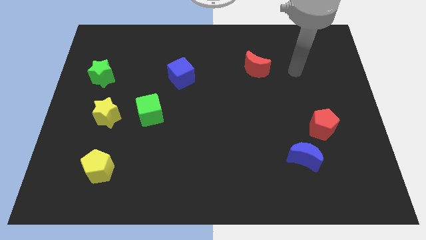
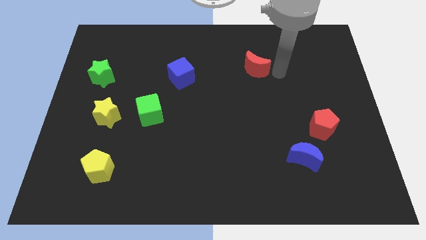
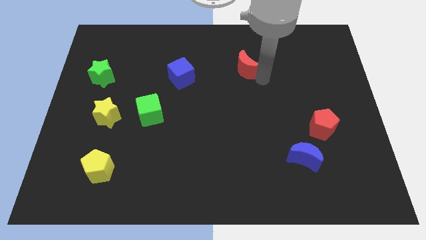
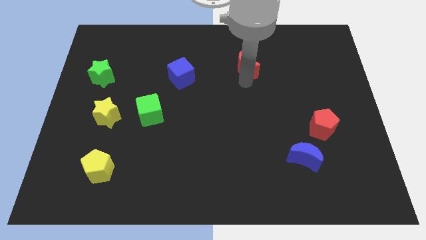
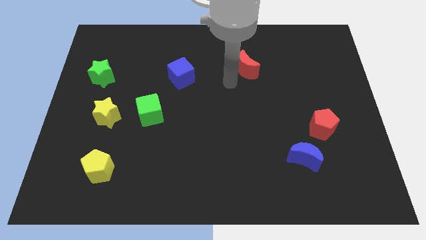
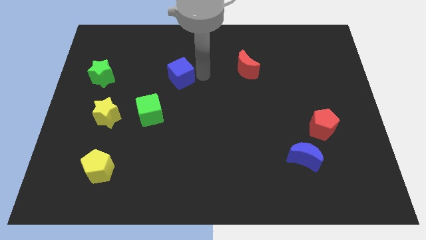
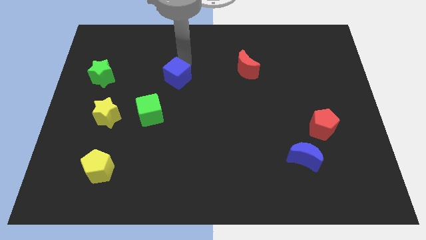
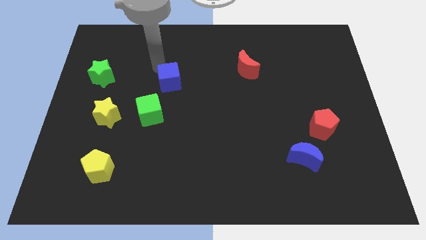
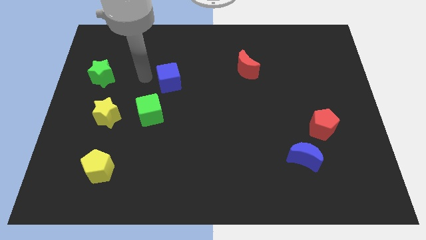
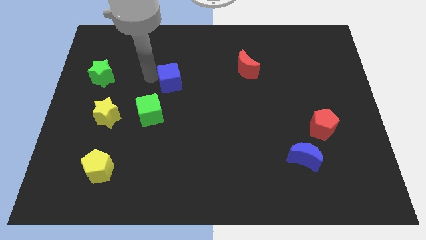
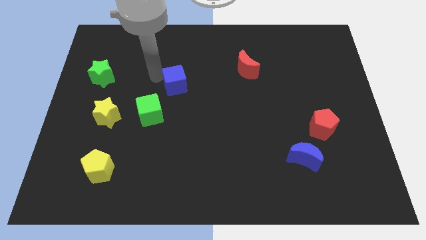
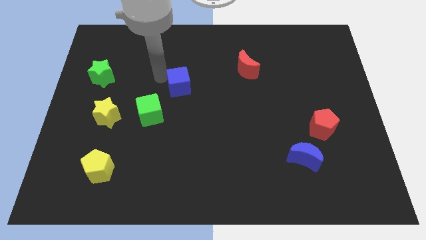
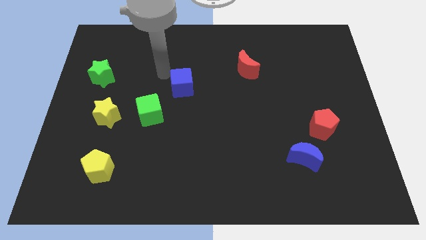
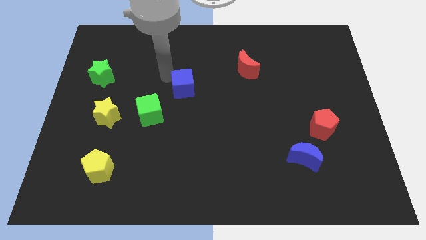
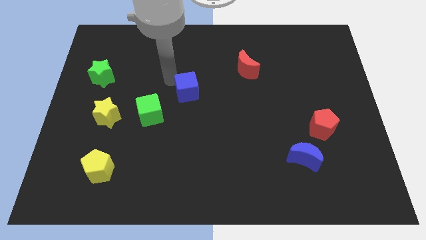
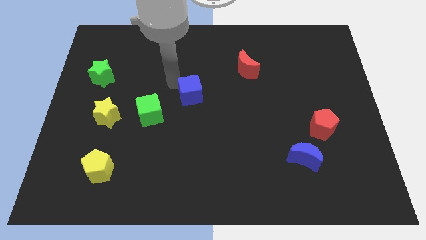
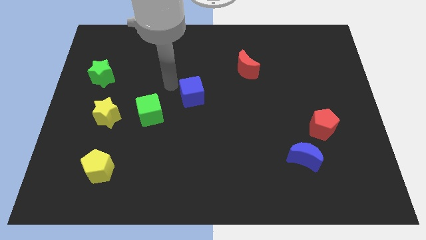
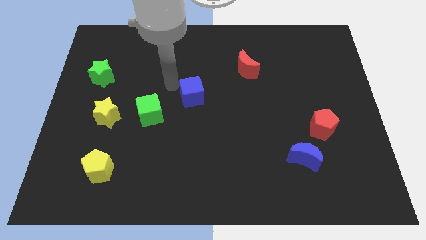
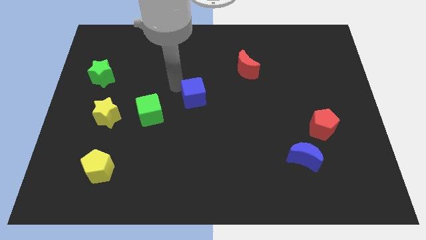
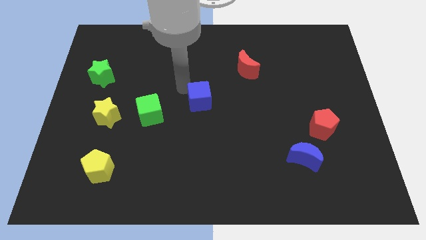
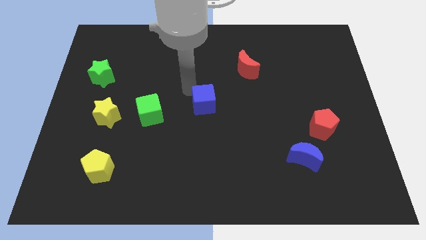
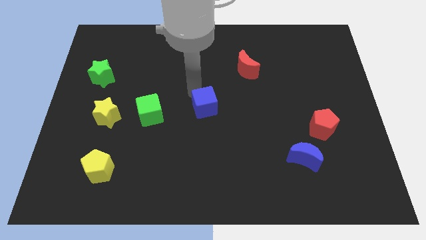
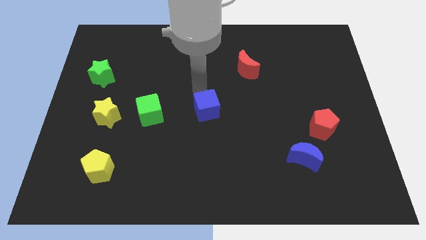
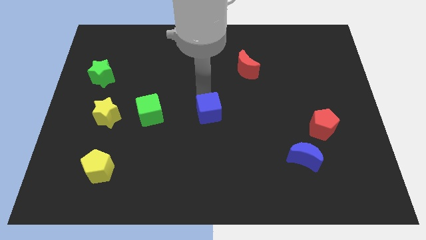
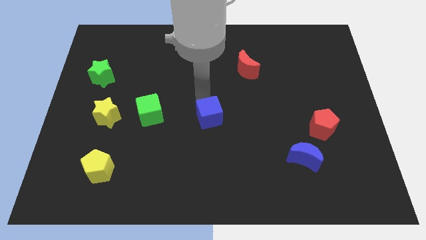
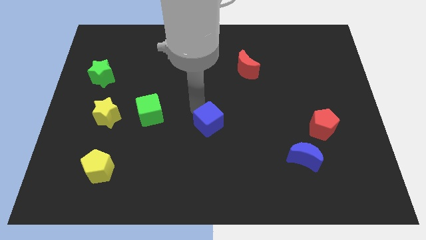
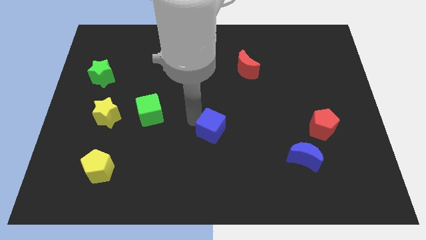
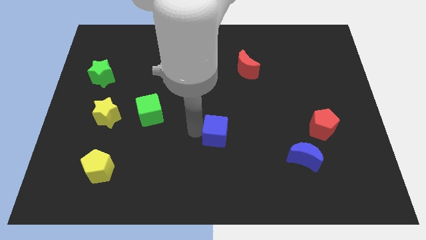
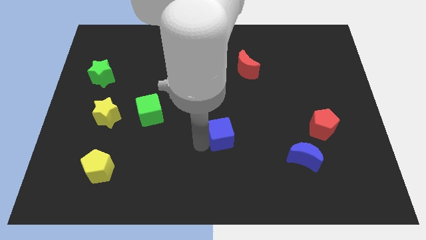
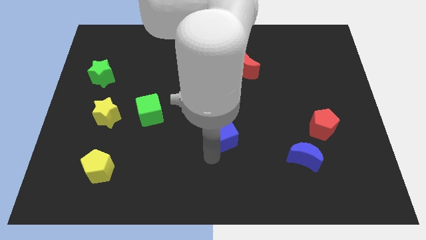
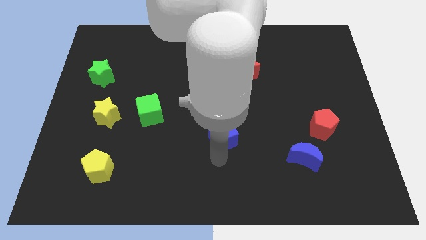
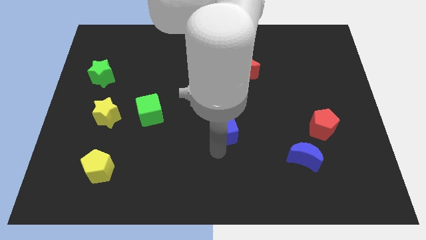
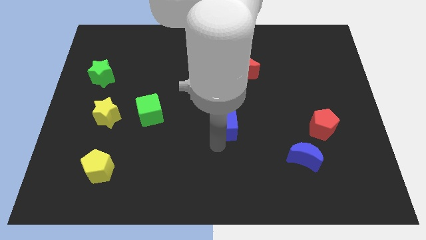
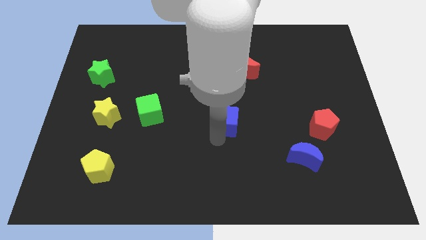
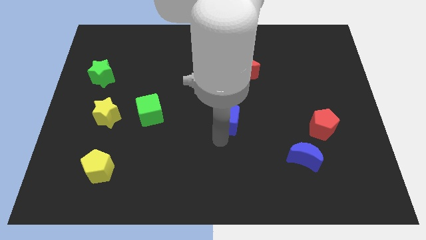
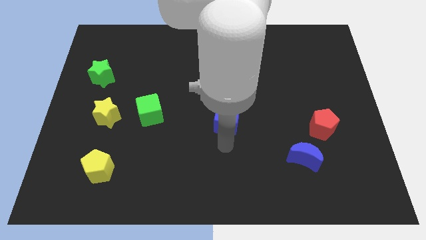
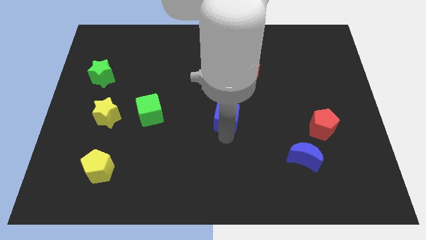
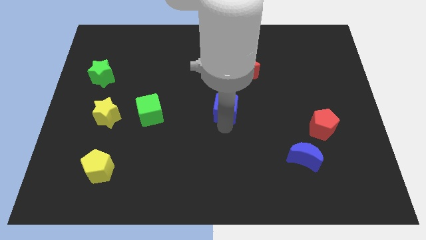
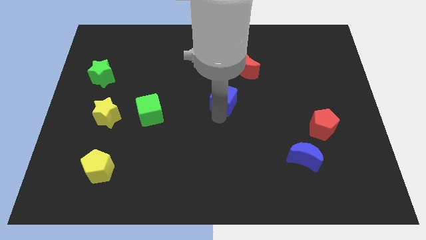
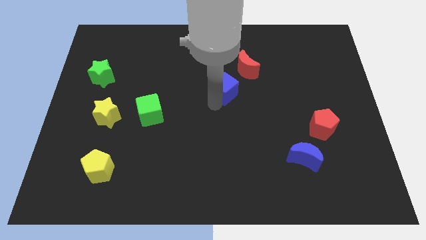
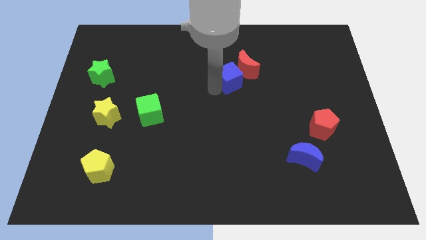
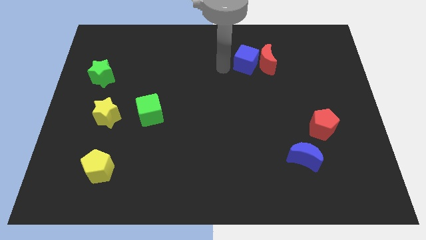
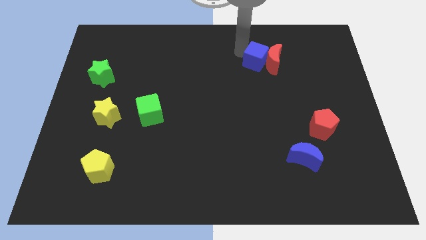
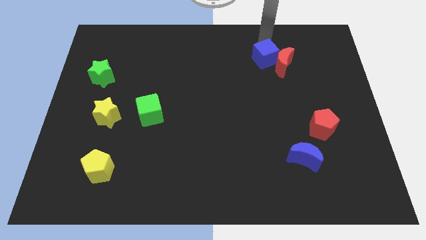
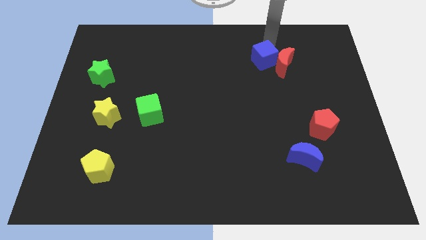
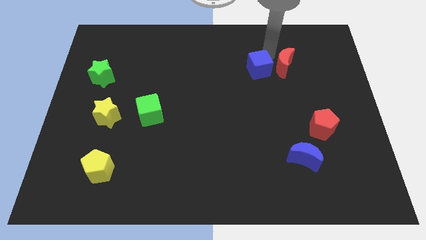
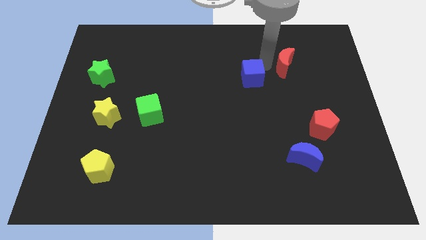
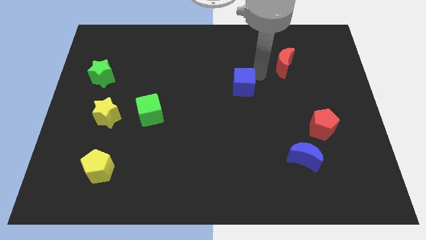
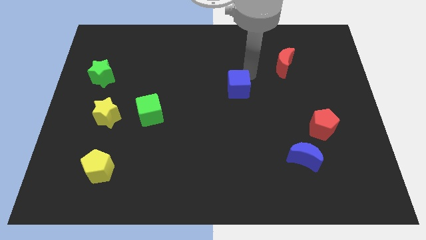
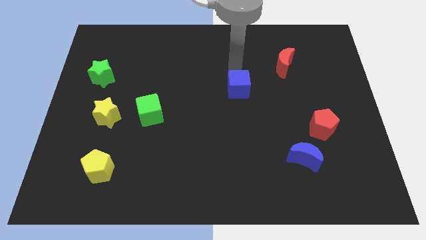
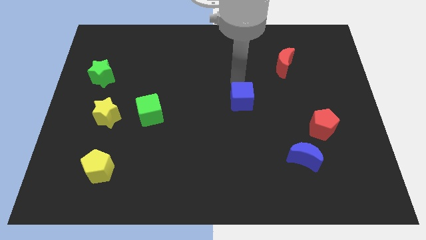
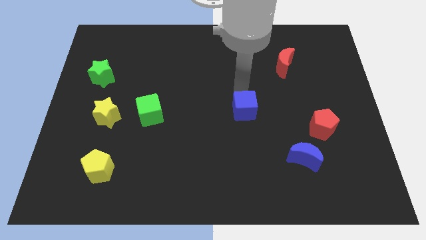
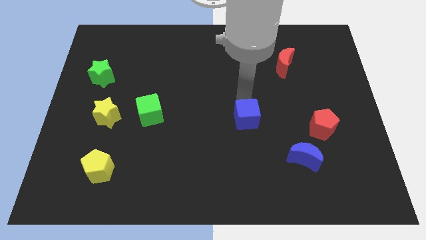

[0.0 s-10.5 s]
push the blue cube down and then to the right

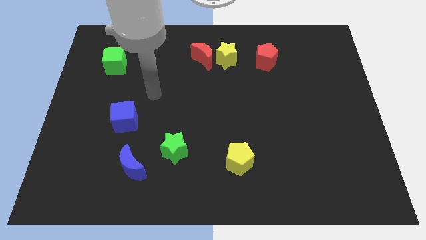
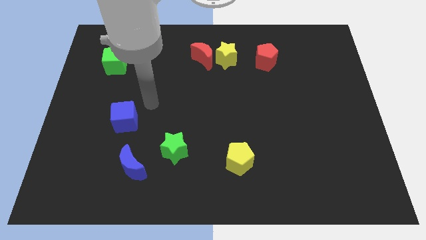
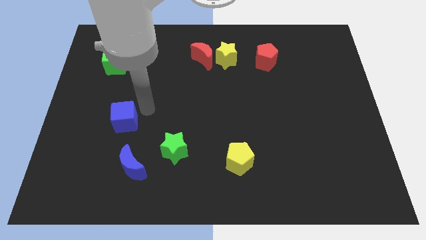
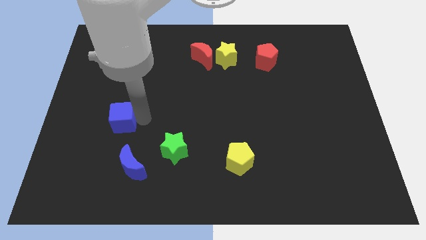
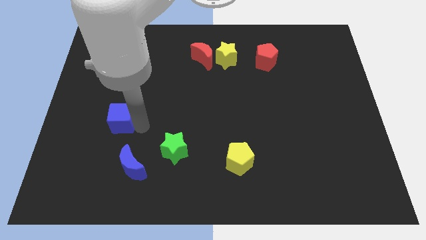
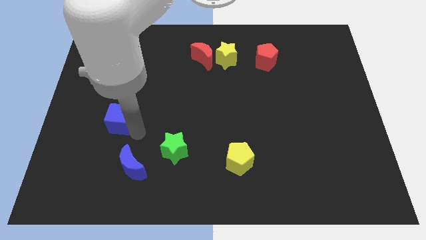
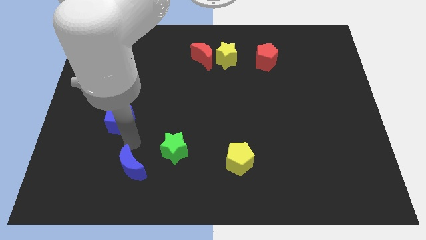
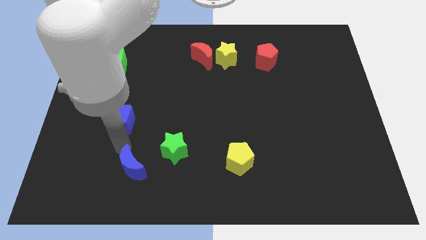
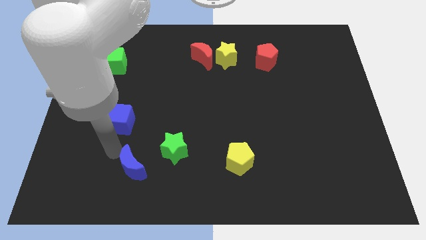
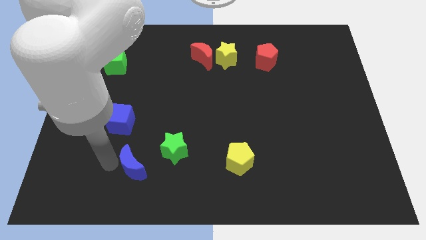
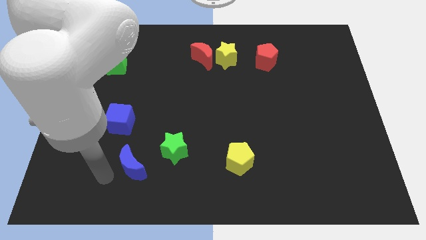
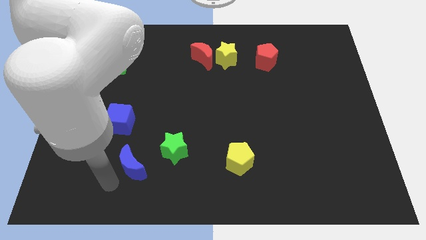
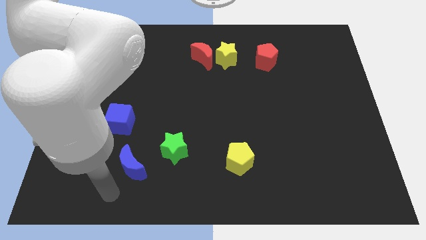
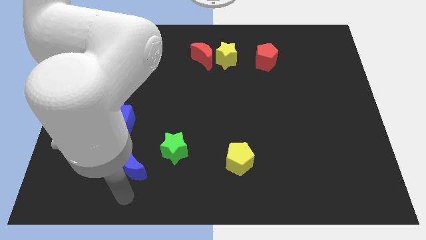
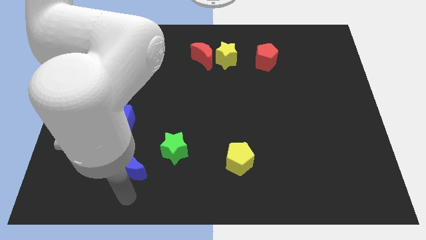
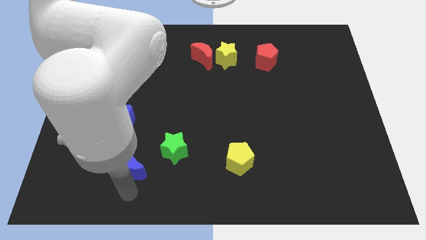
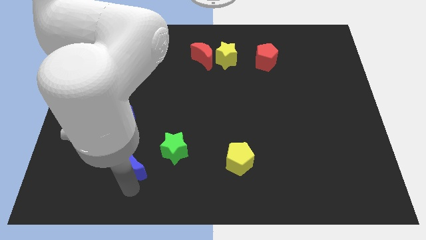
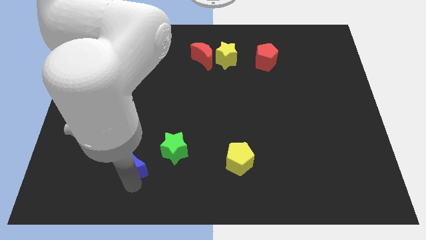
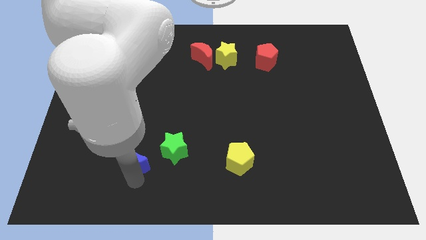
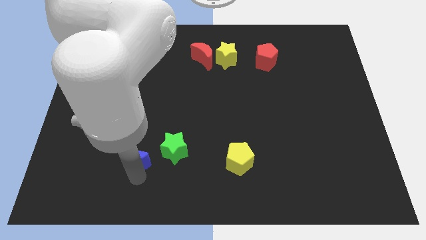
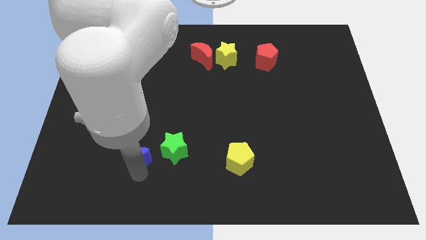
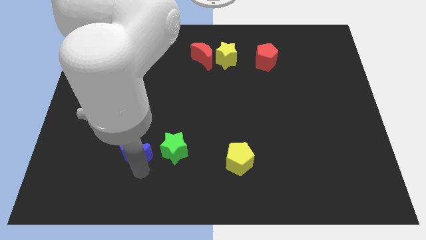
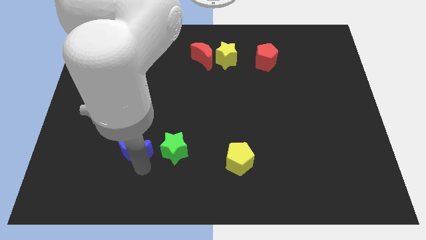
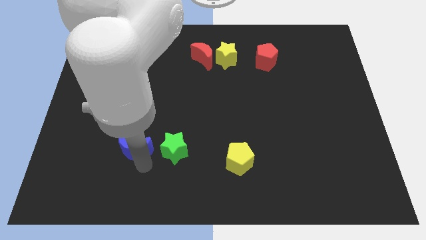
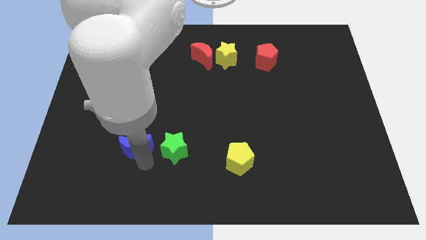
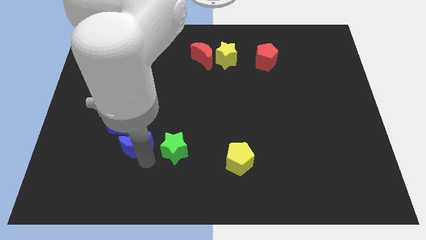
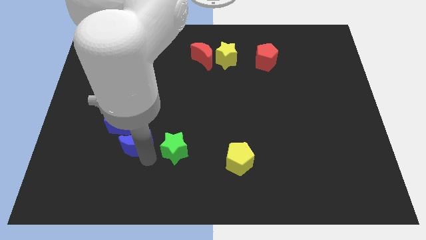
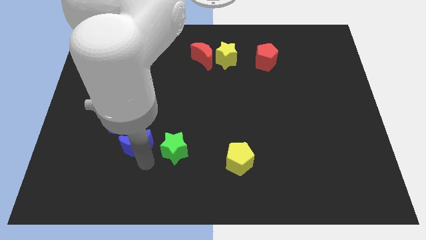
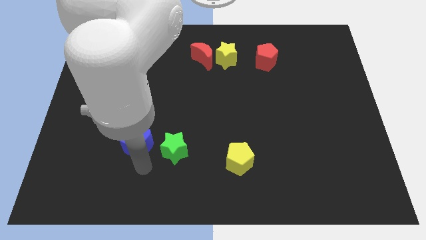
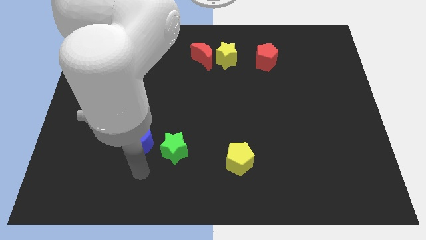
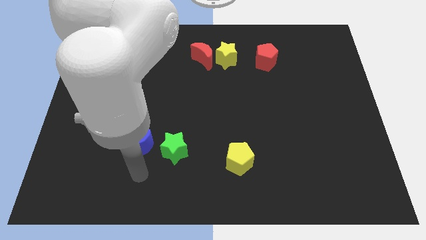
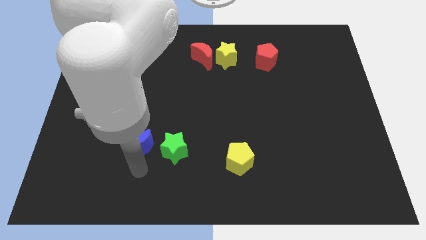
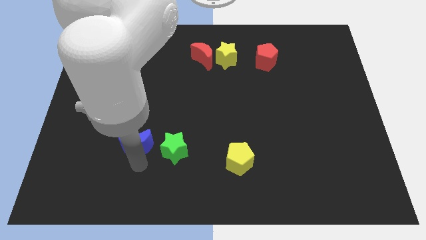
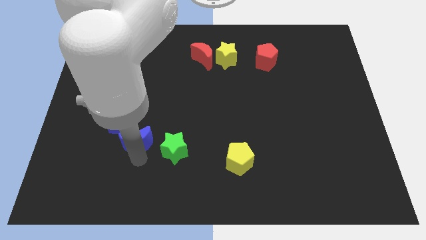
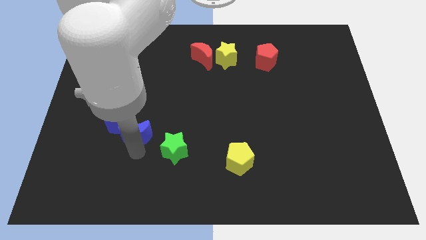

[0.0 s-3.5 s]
slide the blue moon a little bit up
